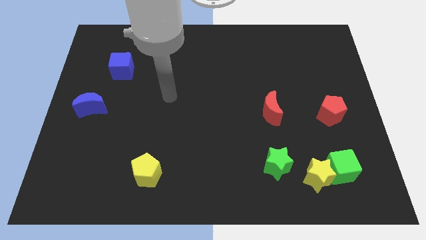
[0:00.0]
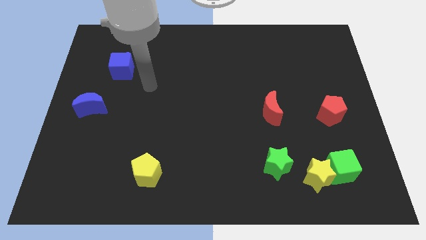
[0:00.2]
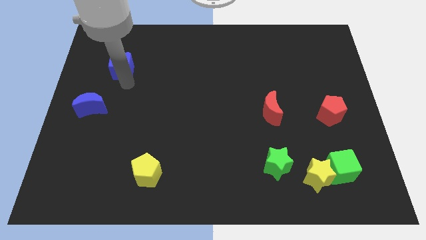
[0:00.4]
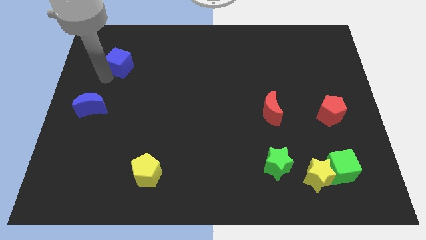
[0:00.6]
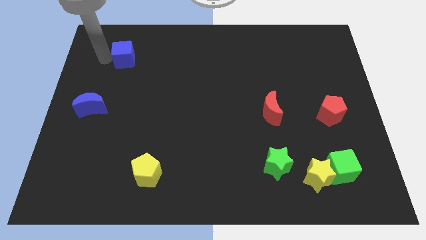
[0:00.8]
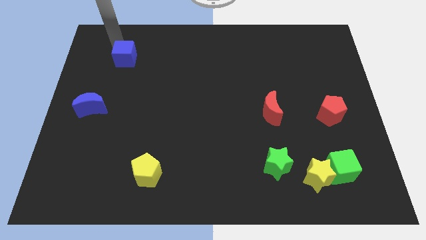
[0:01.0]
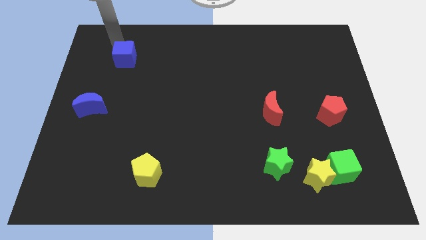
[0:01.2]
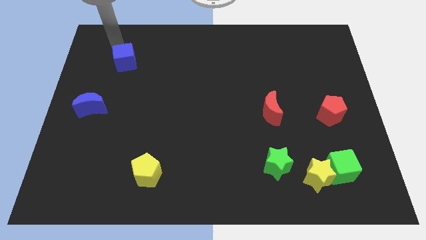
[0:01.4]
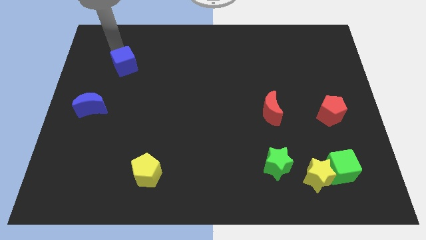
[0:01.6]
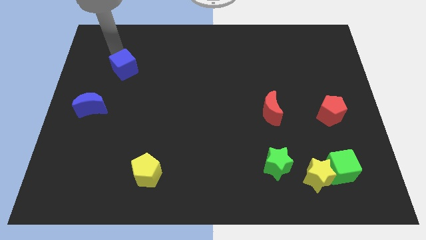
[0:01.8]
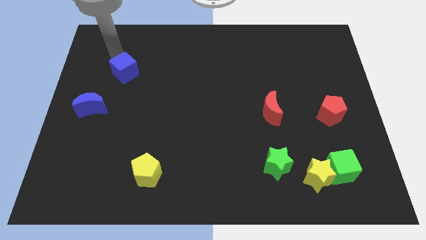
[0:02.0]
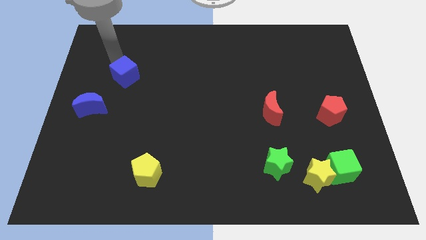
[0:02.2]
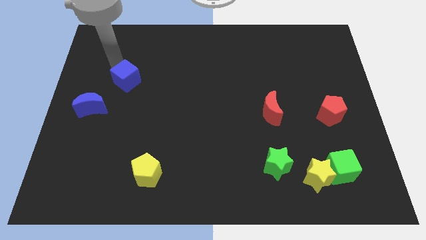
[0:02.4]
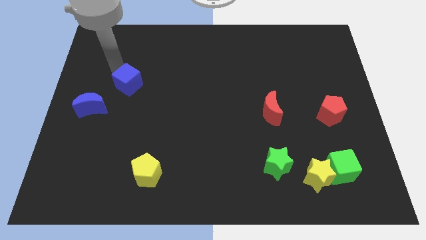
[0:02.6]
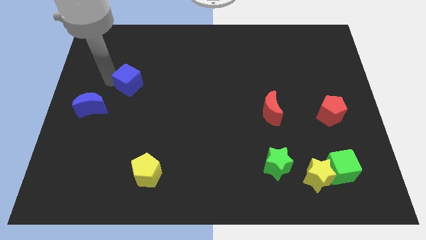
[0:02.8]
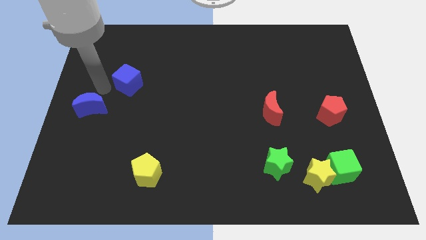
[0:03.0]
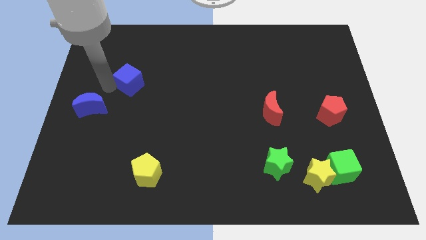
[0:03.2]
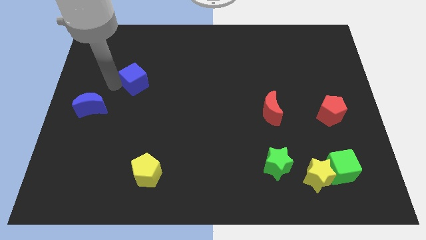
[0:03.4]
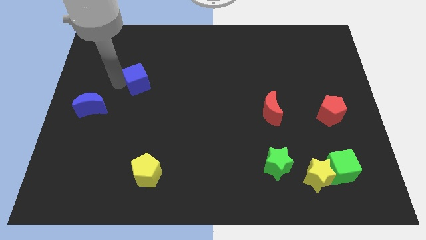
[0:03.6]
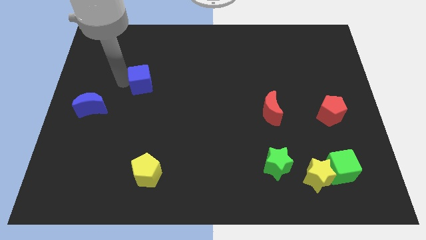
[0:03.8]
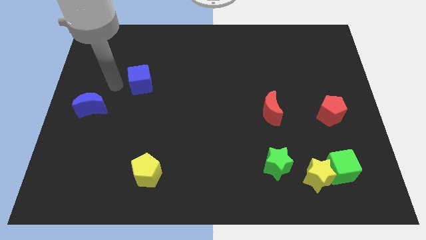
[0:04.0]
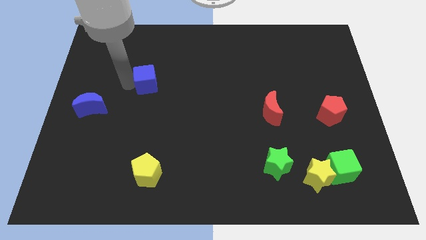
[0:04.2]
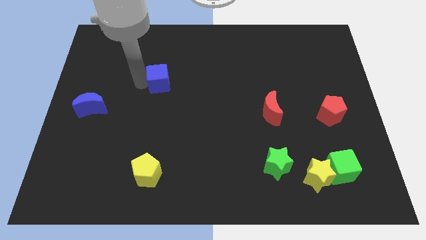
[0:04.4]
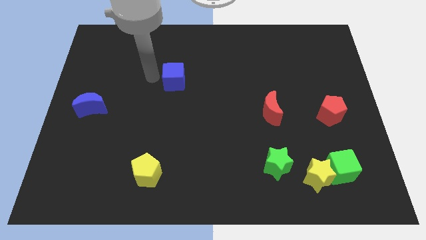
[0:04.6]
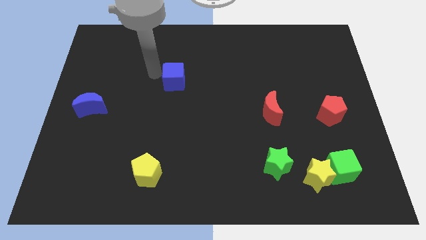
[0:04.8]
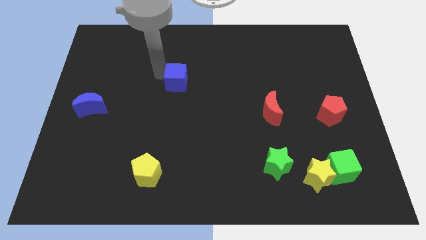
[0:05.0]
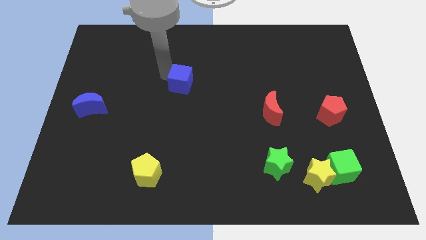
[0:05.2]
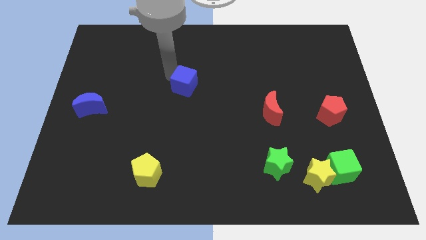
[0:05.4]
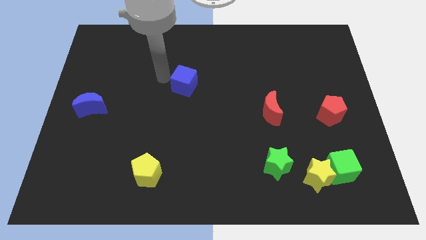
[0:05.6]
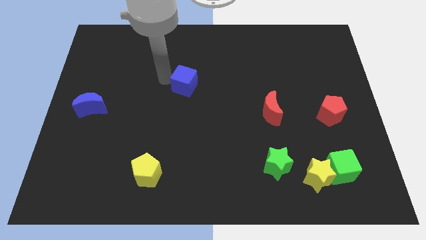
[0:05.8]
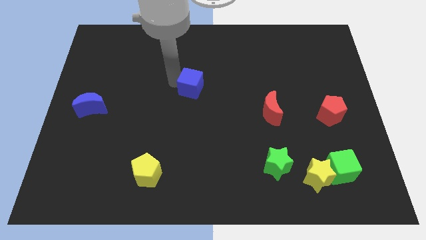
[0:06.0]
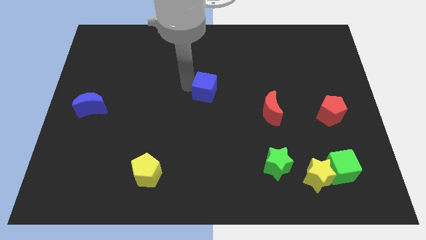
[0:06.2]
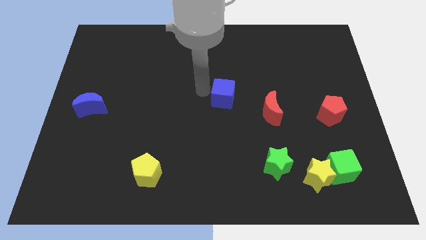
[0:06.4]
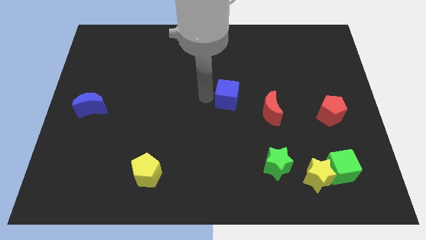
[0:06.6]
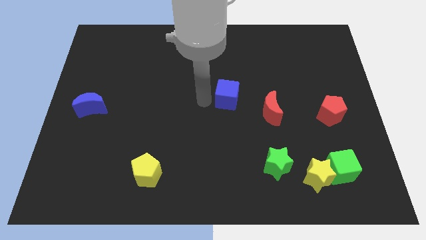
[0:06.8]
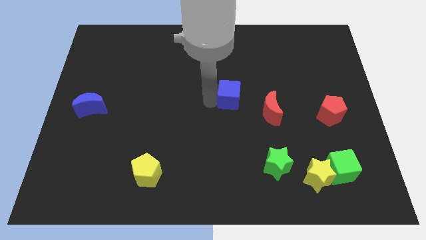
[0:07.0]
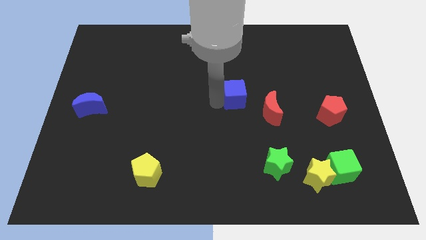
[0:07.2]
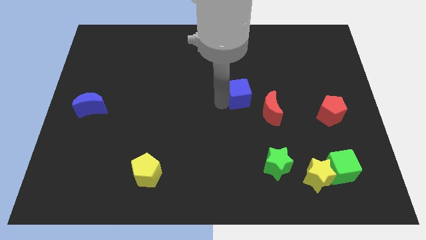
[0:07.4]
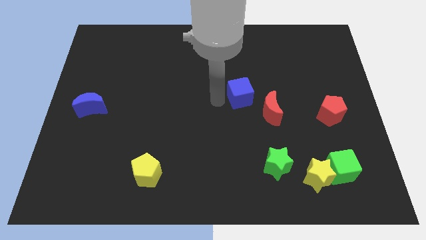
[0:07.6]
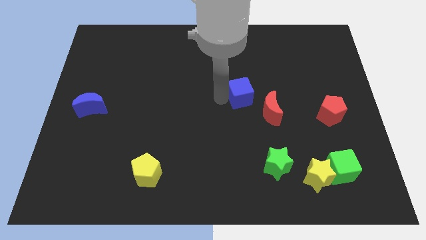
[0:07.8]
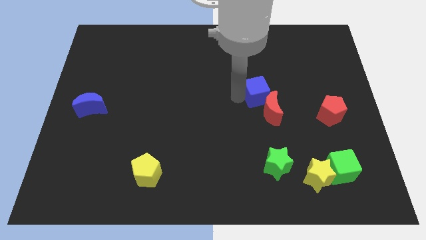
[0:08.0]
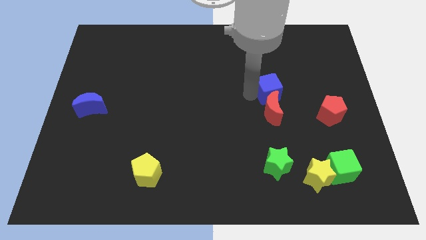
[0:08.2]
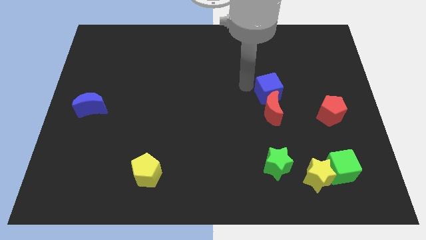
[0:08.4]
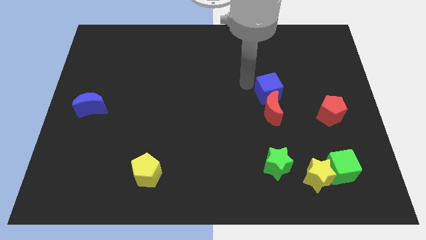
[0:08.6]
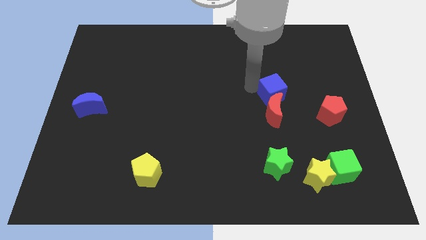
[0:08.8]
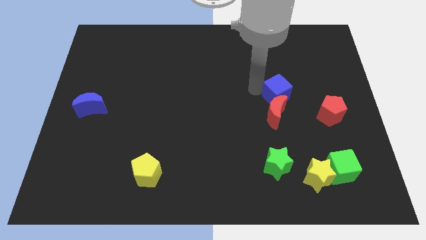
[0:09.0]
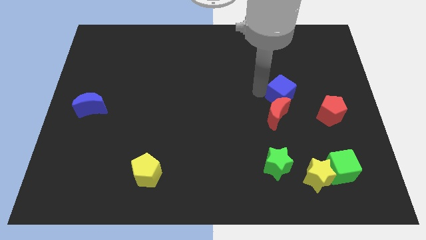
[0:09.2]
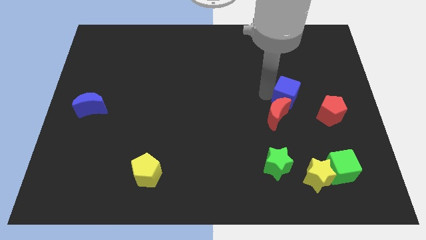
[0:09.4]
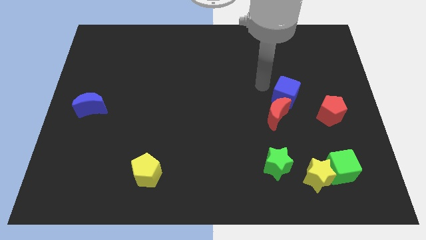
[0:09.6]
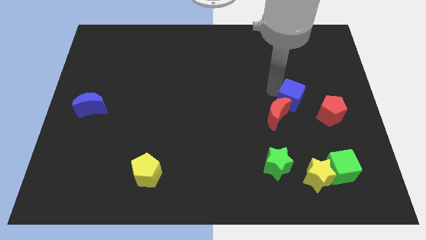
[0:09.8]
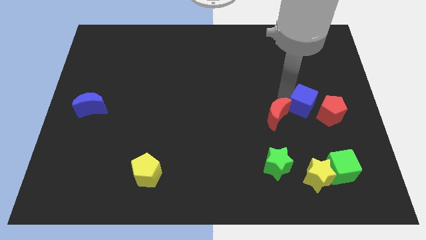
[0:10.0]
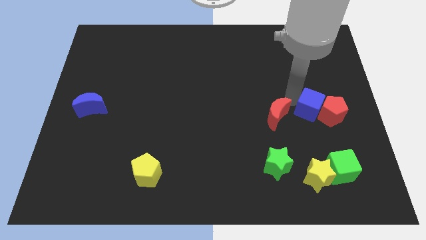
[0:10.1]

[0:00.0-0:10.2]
move the blue cube next to the red pentagon

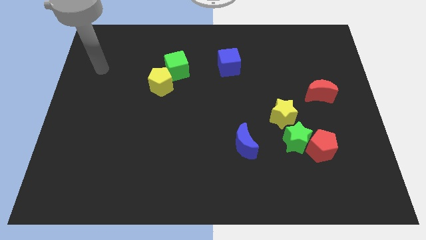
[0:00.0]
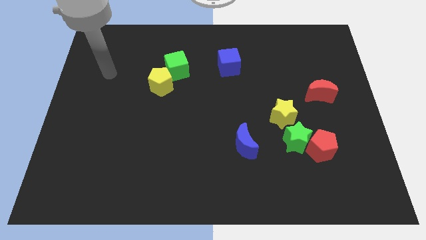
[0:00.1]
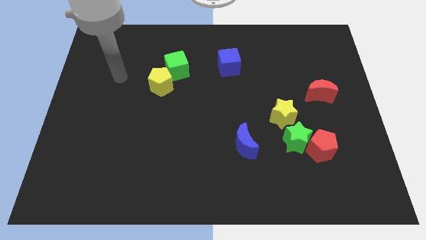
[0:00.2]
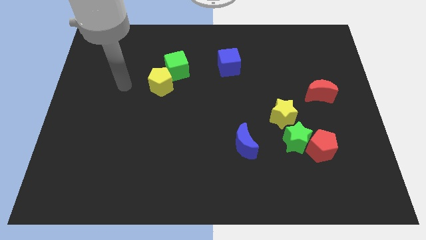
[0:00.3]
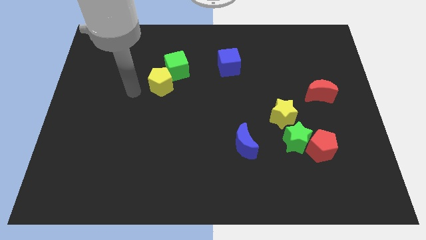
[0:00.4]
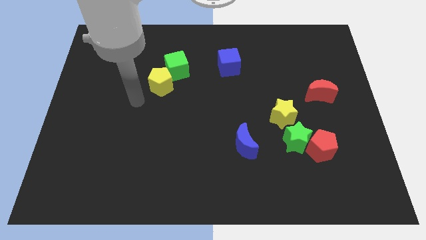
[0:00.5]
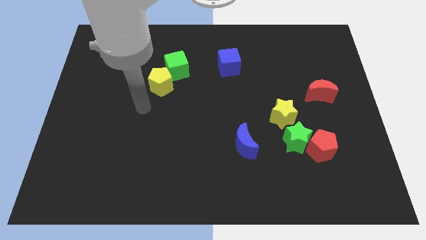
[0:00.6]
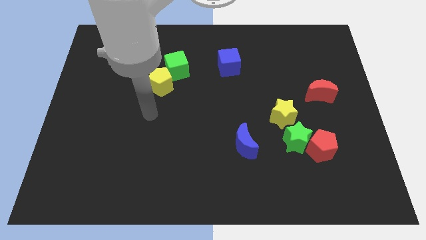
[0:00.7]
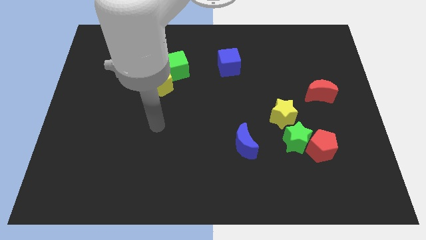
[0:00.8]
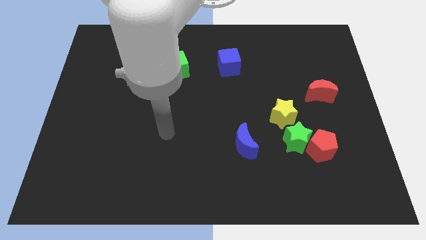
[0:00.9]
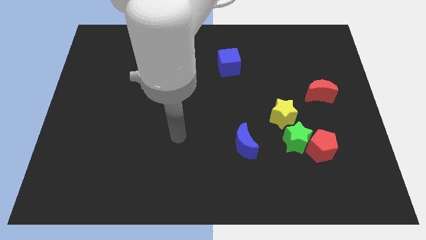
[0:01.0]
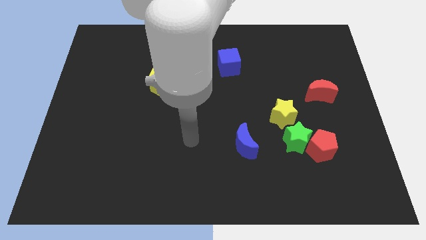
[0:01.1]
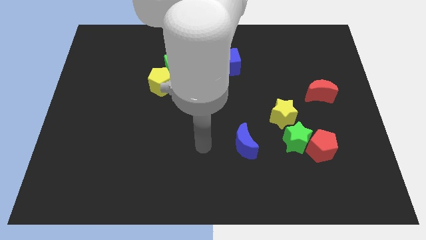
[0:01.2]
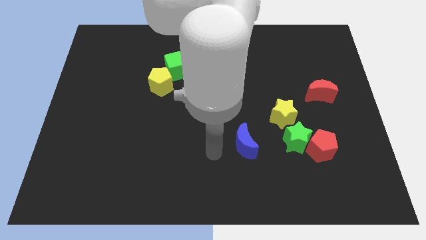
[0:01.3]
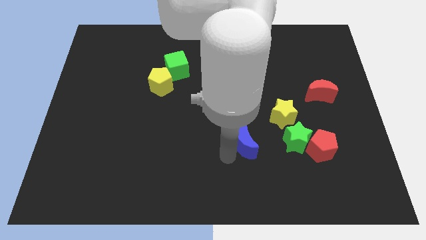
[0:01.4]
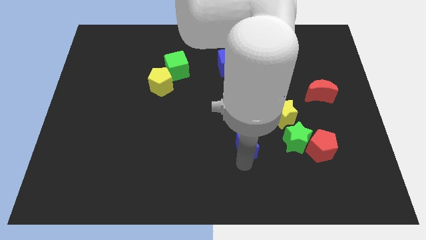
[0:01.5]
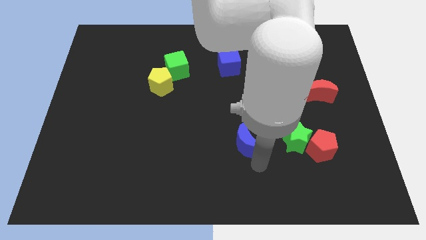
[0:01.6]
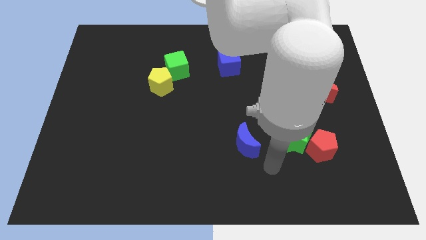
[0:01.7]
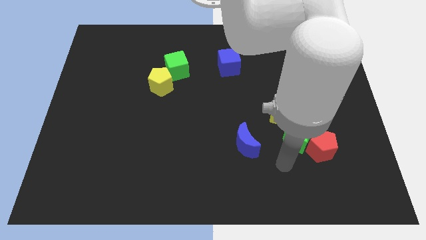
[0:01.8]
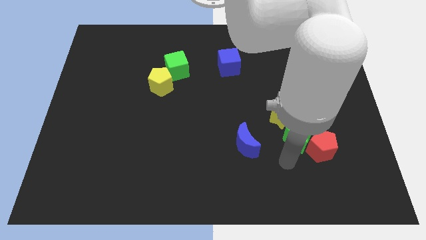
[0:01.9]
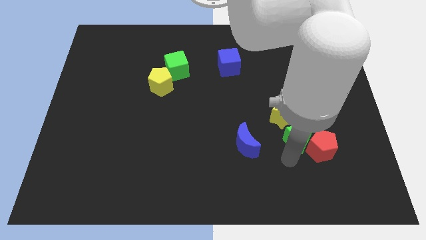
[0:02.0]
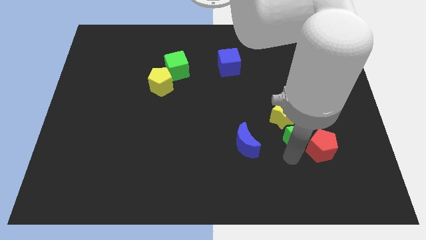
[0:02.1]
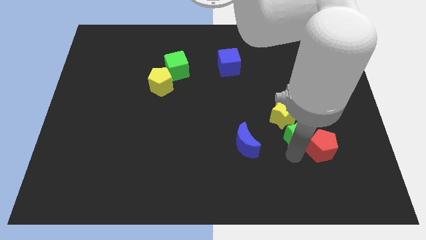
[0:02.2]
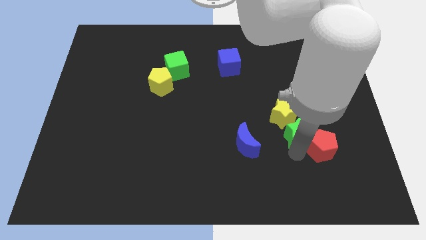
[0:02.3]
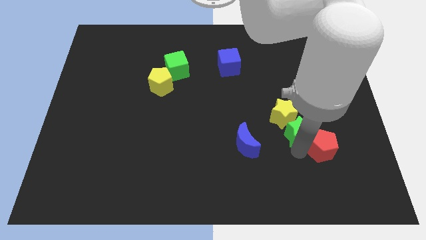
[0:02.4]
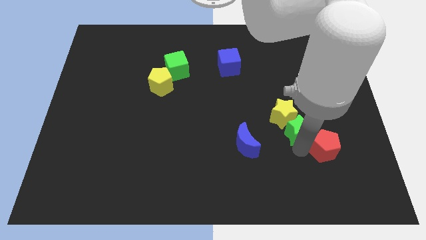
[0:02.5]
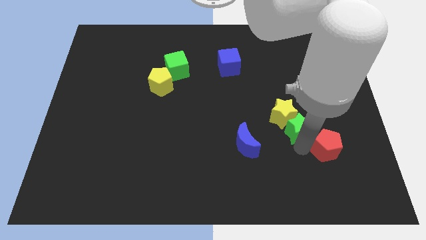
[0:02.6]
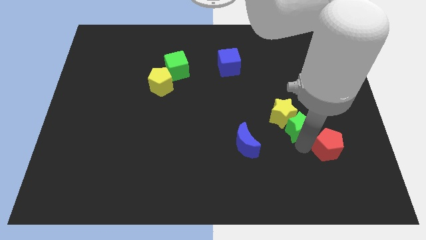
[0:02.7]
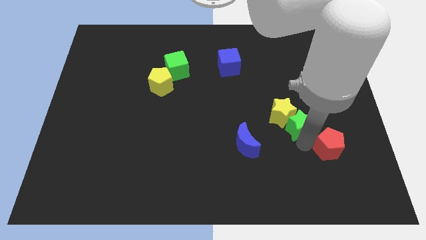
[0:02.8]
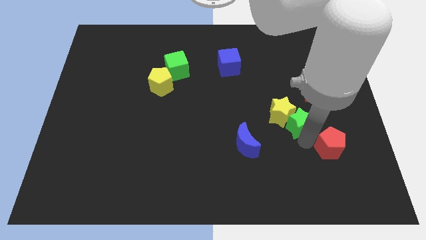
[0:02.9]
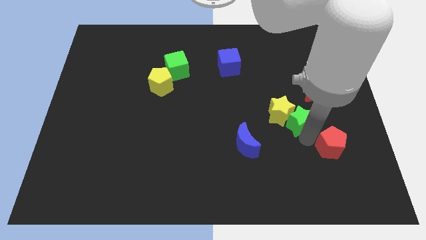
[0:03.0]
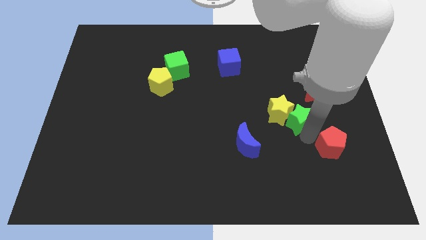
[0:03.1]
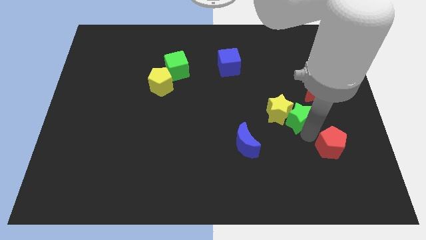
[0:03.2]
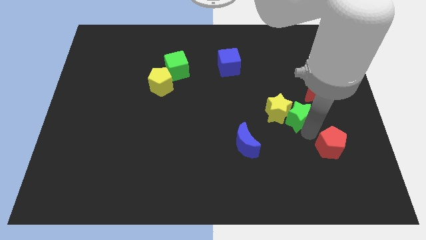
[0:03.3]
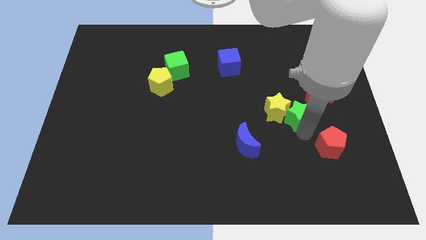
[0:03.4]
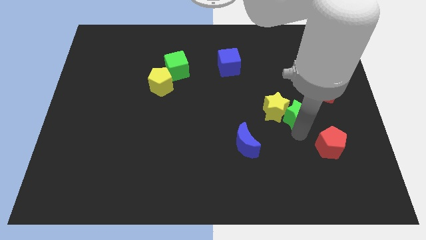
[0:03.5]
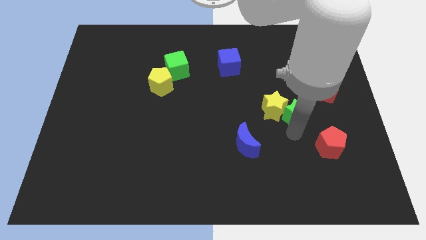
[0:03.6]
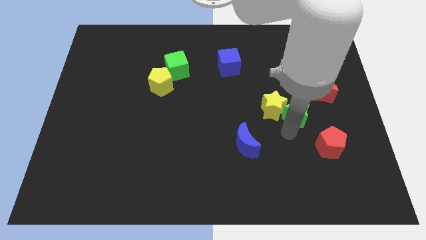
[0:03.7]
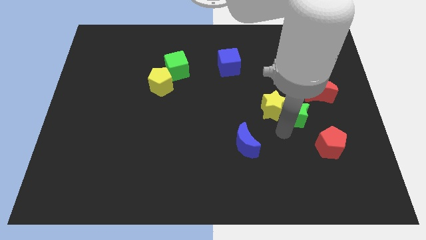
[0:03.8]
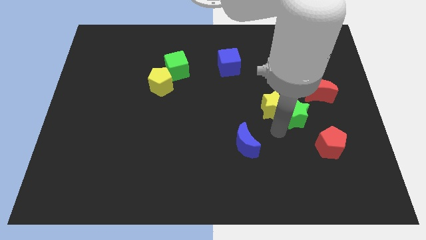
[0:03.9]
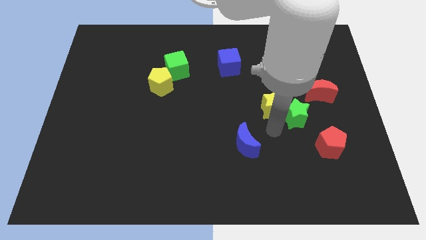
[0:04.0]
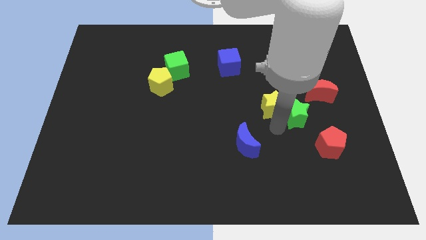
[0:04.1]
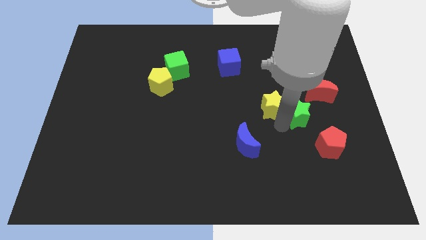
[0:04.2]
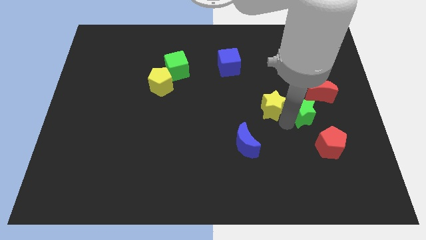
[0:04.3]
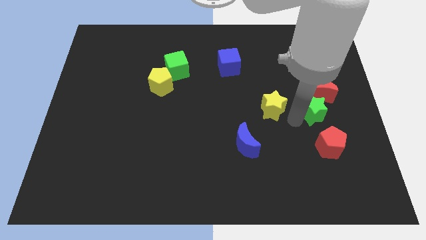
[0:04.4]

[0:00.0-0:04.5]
put the green star towards the red moon
